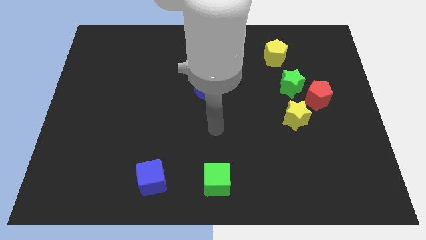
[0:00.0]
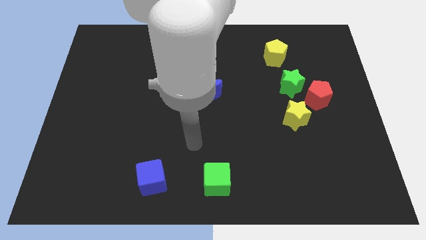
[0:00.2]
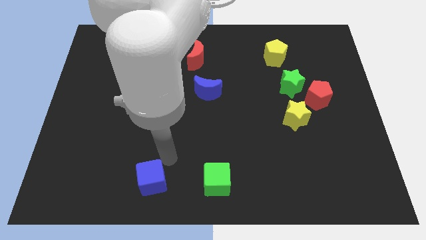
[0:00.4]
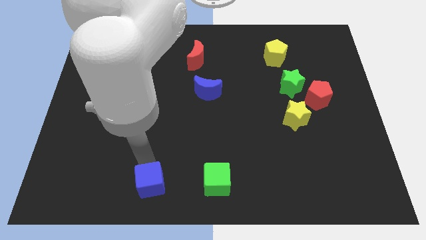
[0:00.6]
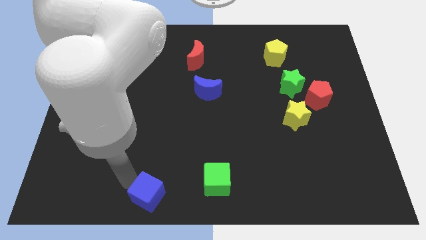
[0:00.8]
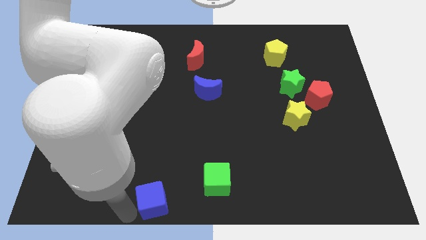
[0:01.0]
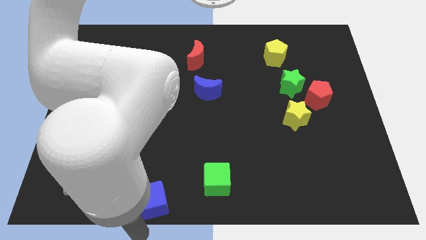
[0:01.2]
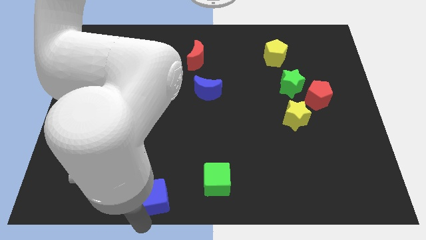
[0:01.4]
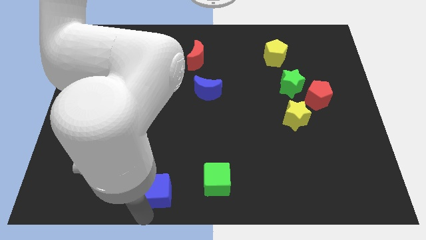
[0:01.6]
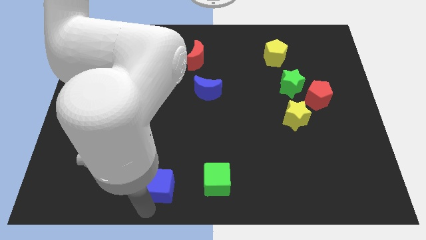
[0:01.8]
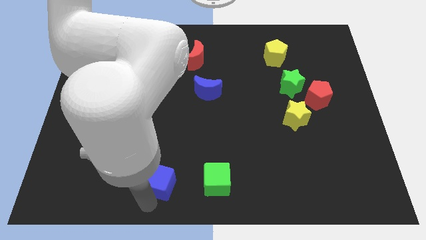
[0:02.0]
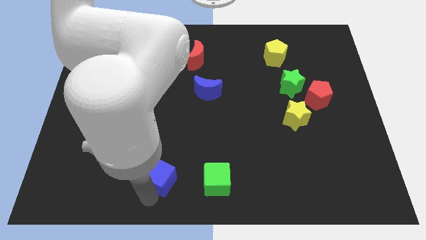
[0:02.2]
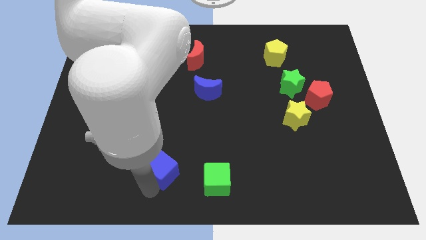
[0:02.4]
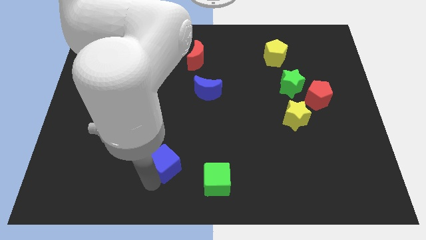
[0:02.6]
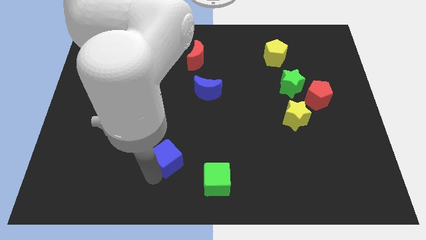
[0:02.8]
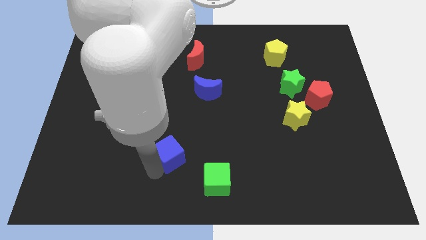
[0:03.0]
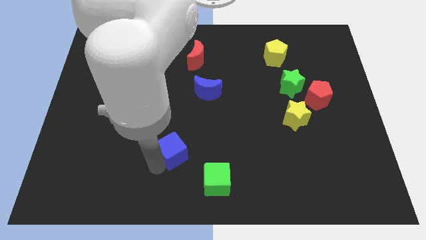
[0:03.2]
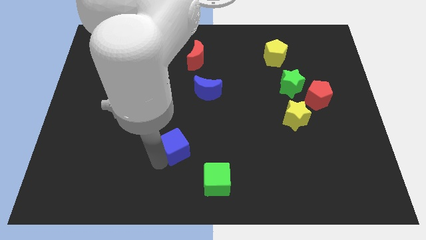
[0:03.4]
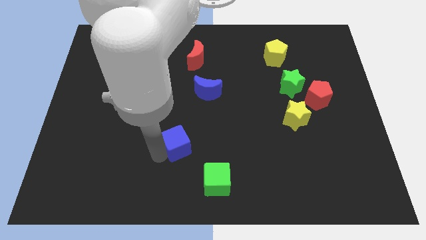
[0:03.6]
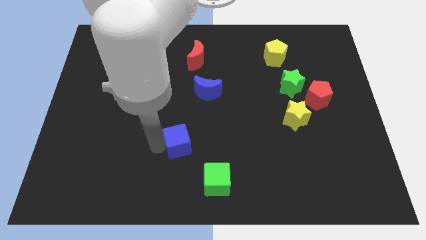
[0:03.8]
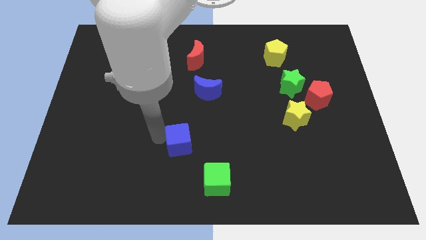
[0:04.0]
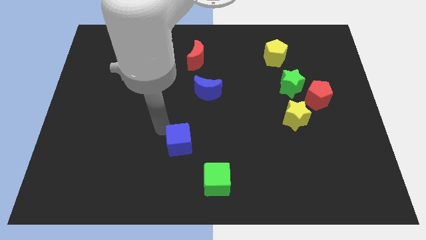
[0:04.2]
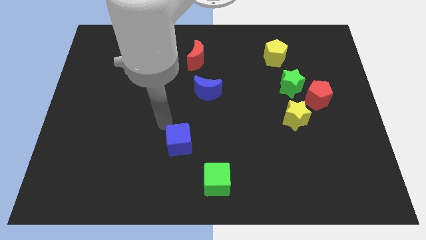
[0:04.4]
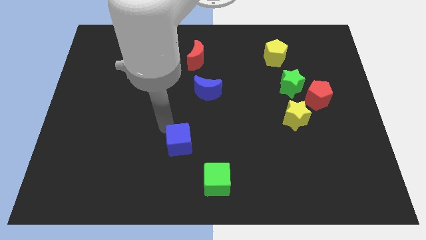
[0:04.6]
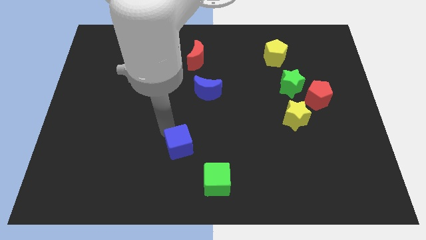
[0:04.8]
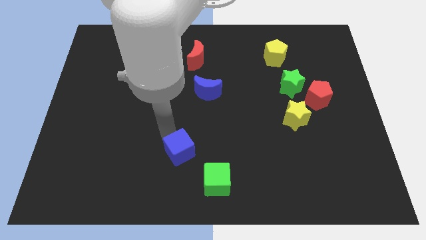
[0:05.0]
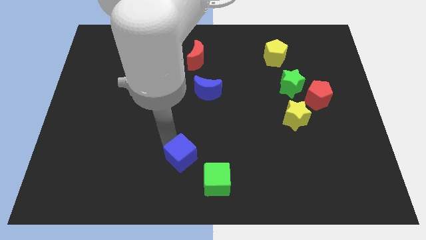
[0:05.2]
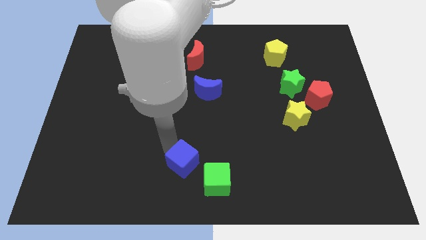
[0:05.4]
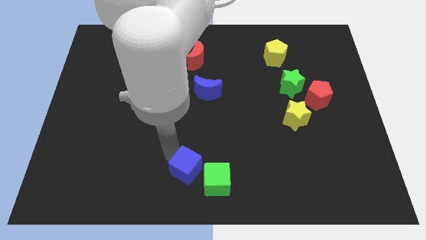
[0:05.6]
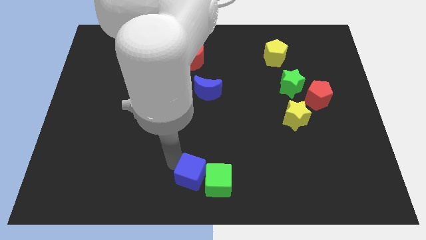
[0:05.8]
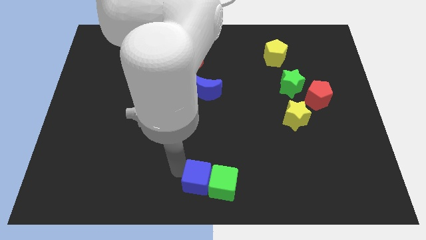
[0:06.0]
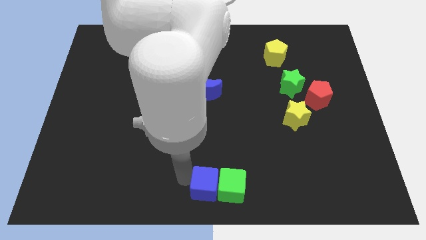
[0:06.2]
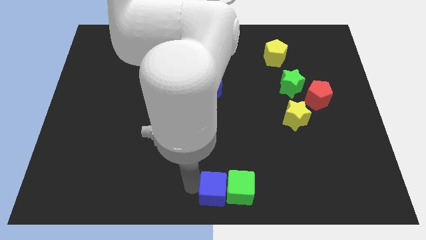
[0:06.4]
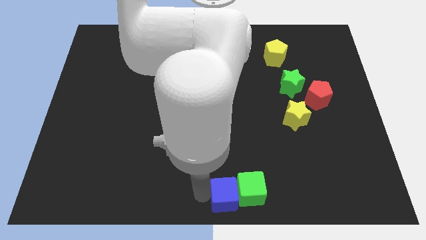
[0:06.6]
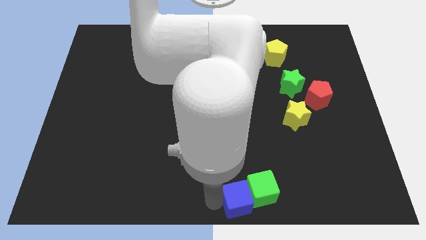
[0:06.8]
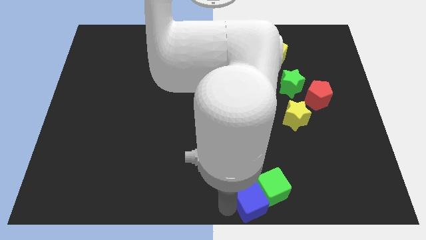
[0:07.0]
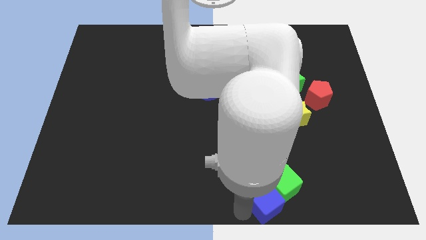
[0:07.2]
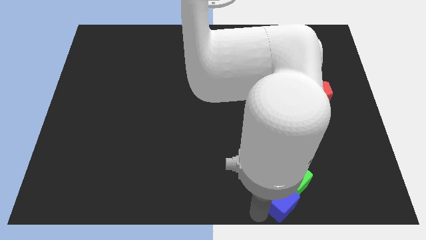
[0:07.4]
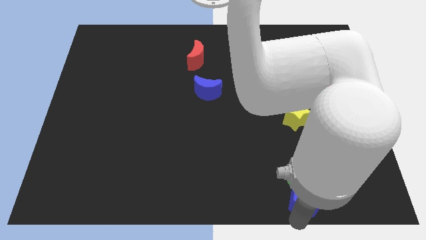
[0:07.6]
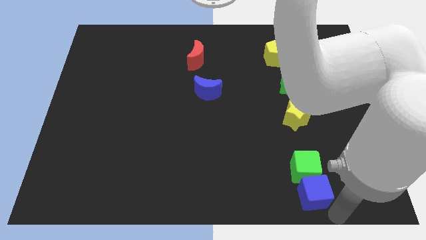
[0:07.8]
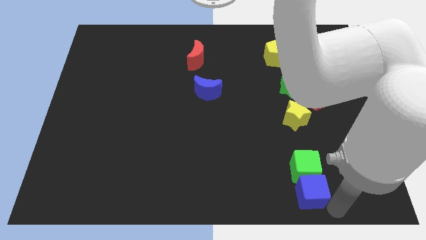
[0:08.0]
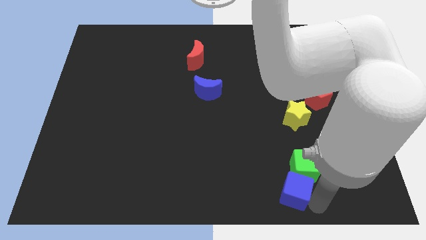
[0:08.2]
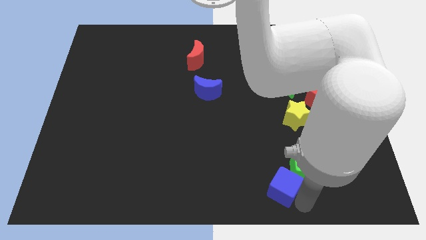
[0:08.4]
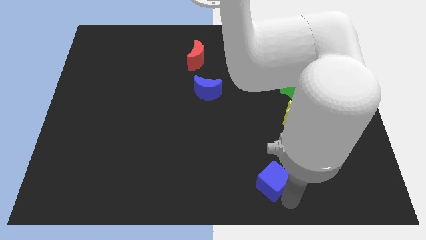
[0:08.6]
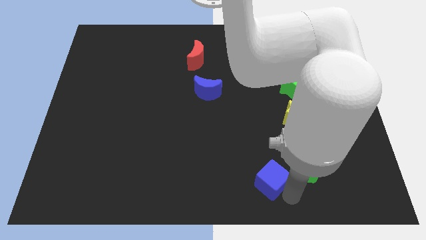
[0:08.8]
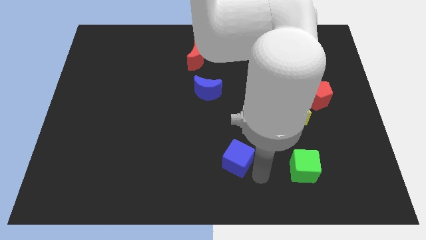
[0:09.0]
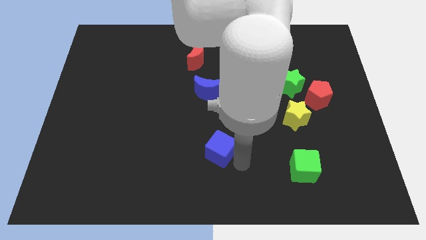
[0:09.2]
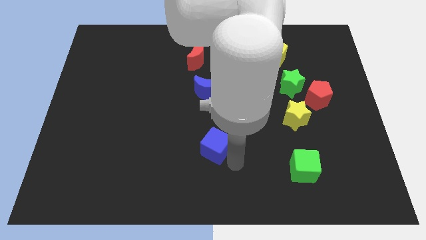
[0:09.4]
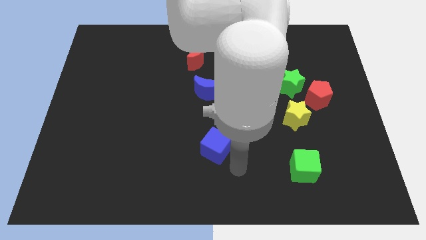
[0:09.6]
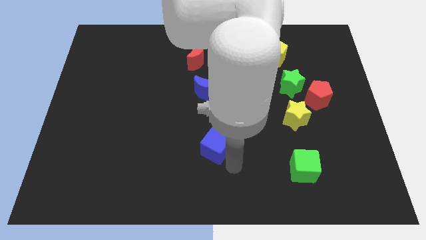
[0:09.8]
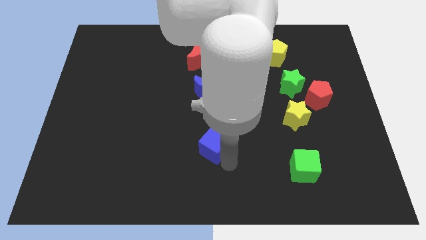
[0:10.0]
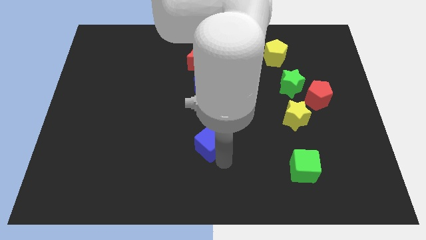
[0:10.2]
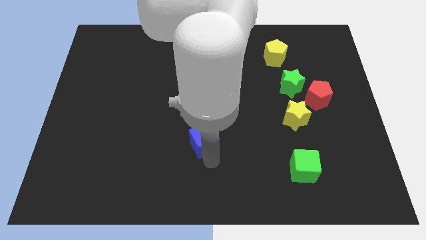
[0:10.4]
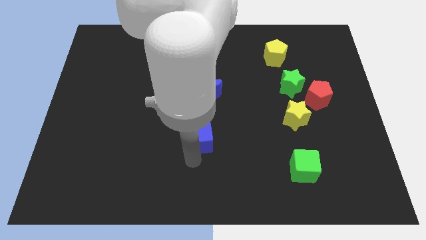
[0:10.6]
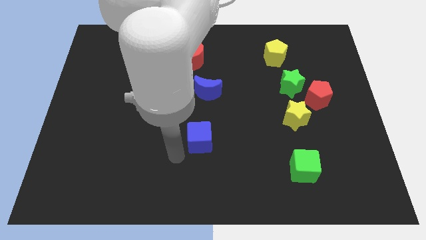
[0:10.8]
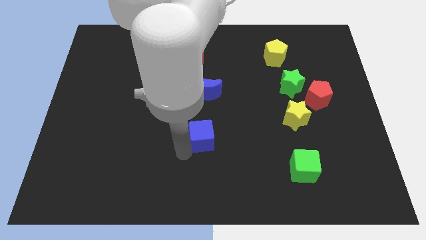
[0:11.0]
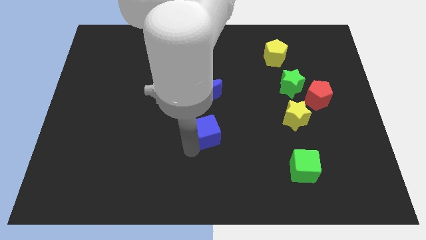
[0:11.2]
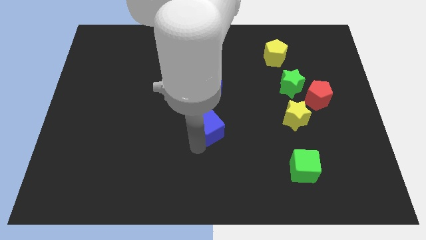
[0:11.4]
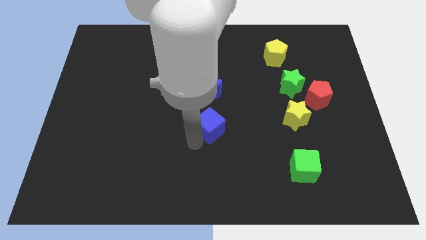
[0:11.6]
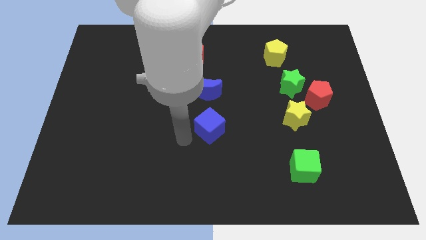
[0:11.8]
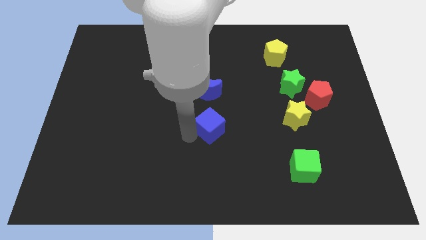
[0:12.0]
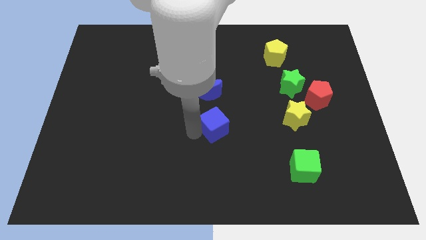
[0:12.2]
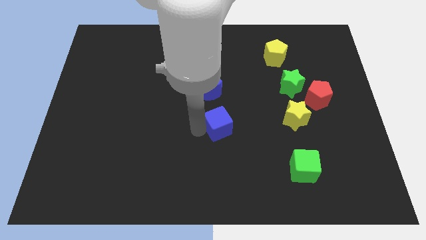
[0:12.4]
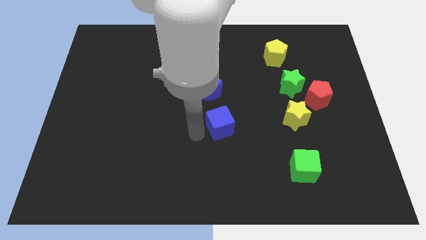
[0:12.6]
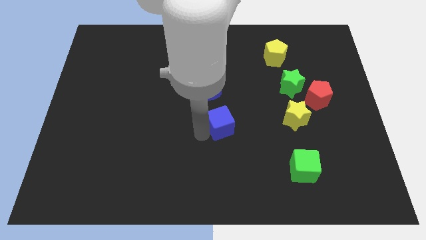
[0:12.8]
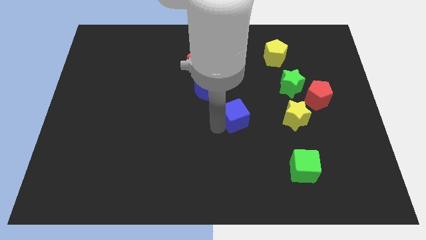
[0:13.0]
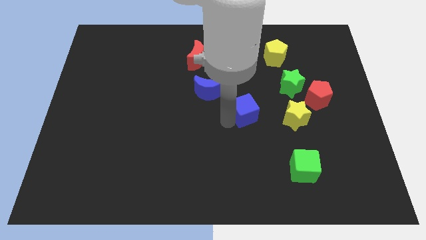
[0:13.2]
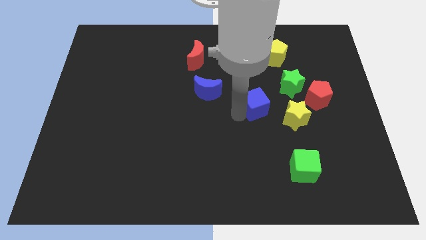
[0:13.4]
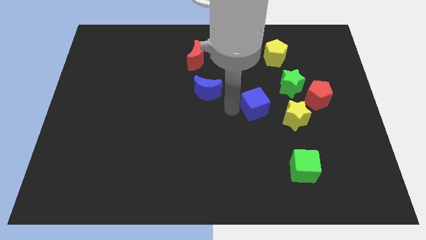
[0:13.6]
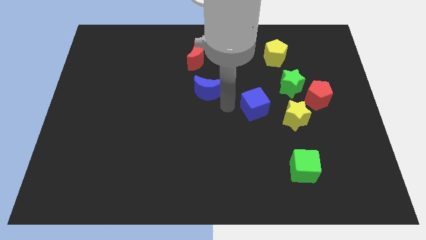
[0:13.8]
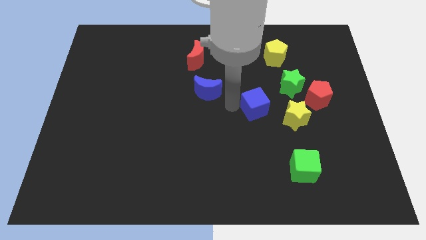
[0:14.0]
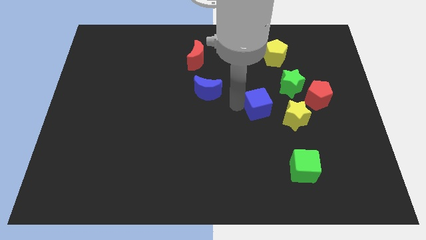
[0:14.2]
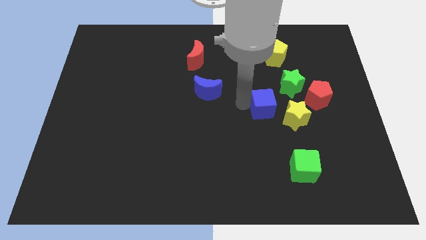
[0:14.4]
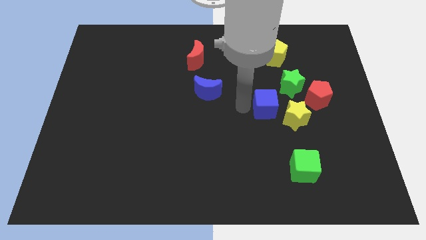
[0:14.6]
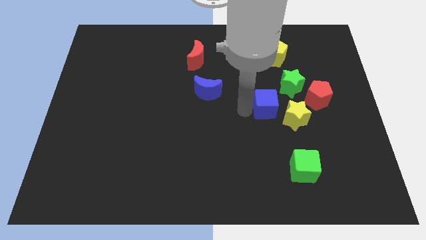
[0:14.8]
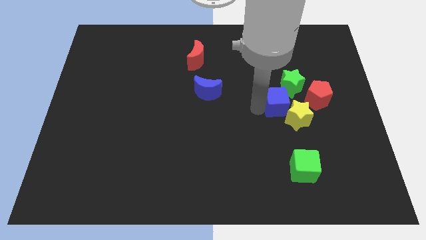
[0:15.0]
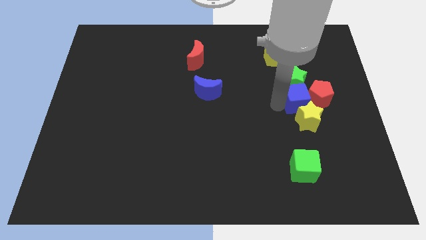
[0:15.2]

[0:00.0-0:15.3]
put the blue cube close to the red pentagon
